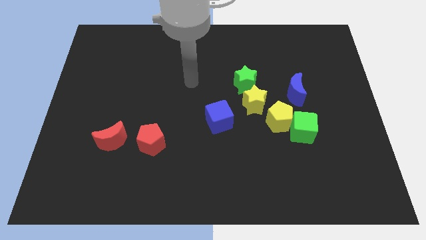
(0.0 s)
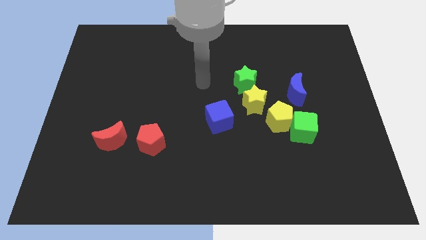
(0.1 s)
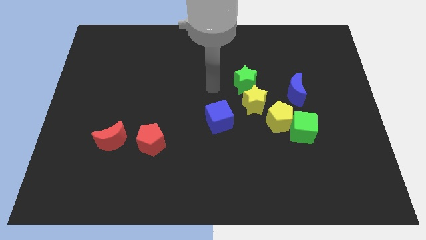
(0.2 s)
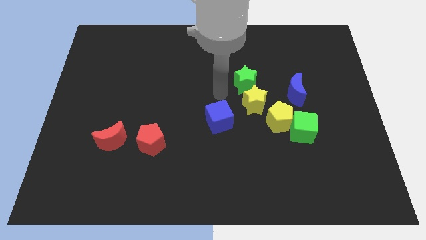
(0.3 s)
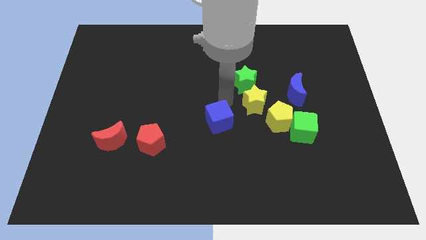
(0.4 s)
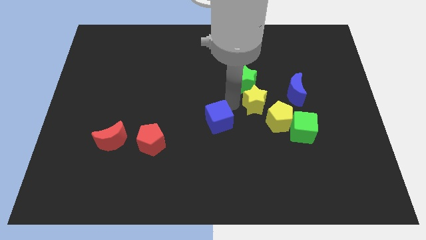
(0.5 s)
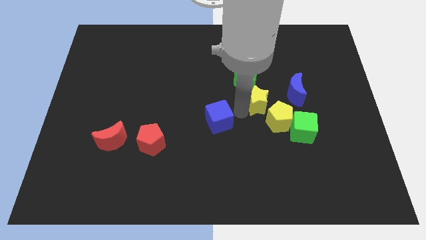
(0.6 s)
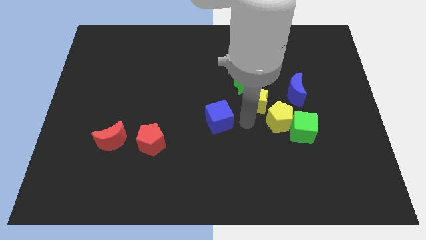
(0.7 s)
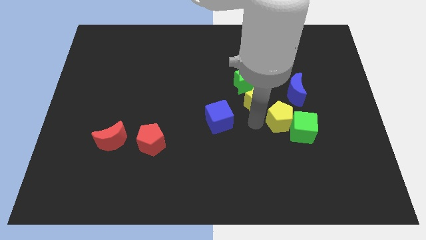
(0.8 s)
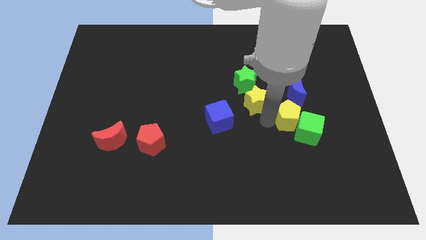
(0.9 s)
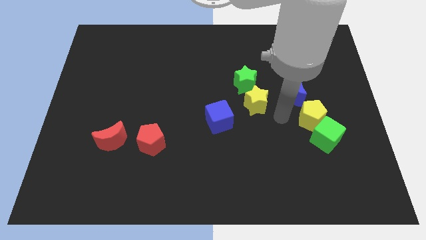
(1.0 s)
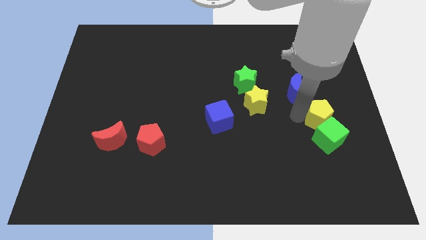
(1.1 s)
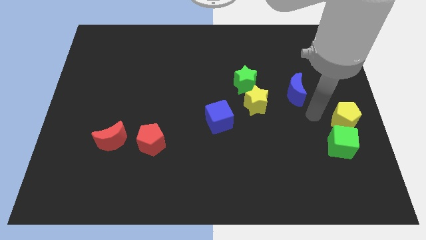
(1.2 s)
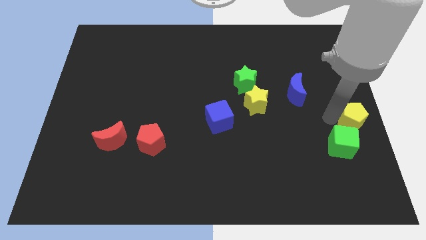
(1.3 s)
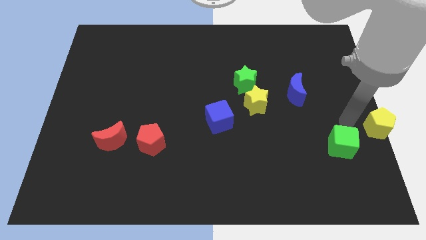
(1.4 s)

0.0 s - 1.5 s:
pull the green cube apart from the yellow pentagon

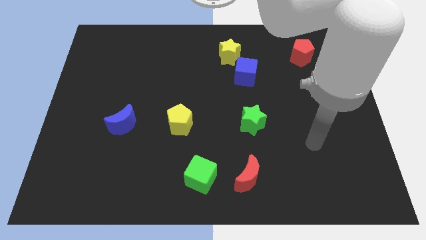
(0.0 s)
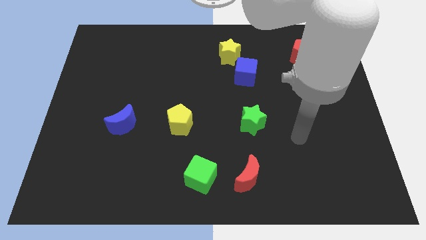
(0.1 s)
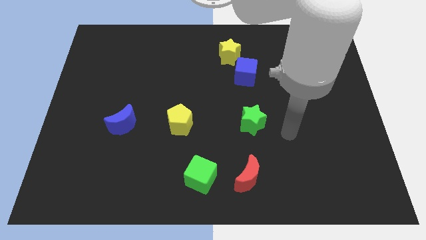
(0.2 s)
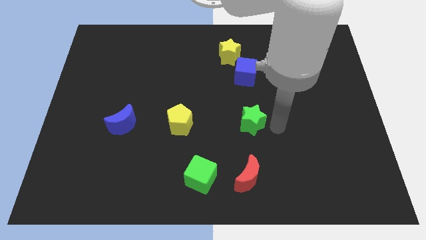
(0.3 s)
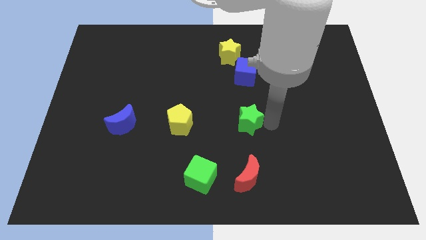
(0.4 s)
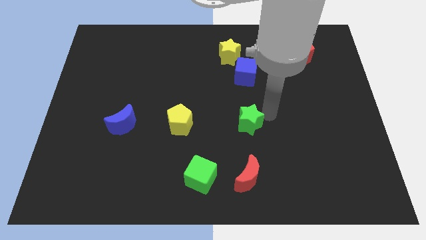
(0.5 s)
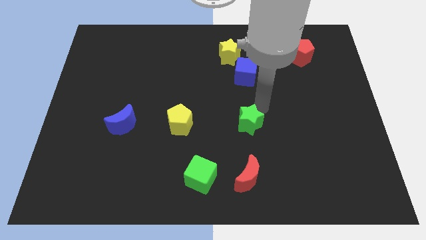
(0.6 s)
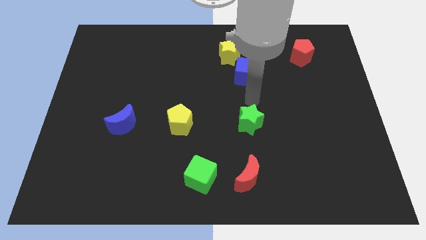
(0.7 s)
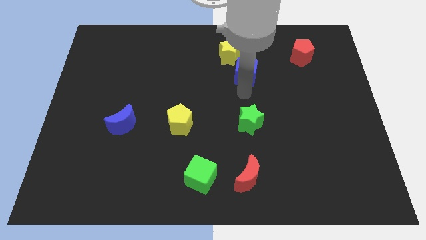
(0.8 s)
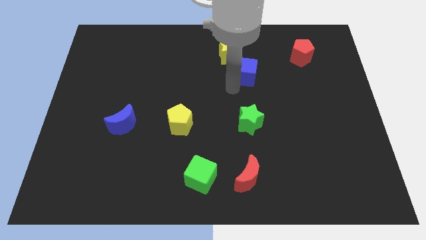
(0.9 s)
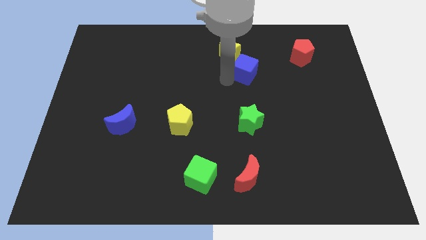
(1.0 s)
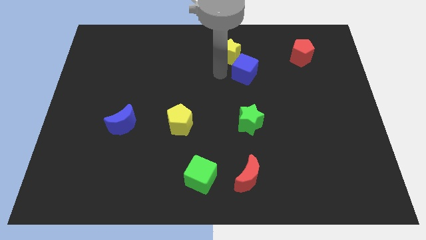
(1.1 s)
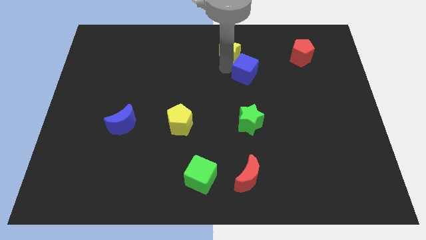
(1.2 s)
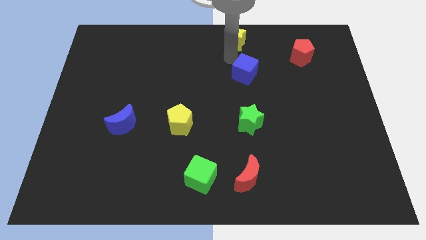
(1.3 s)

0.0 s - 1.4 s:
separate the blue cube from the yellow star

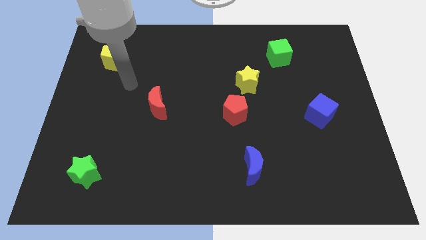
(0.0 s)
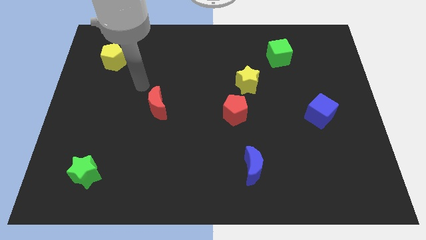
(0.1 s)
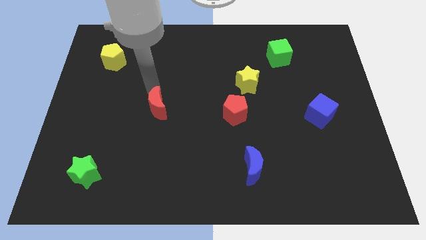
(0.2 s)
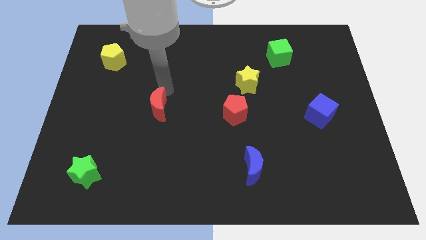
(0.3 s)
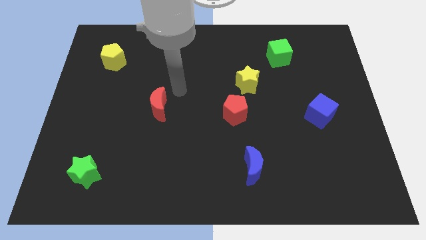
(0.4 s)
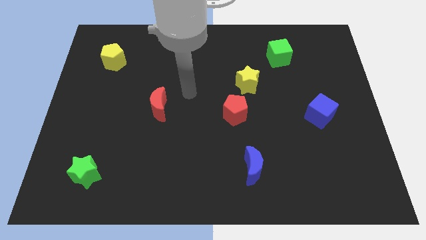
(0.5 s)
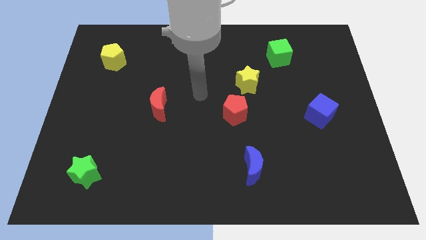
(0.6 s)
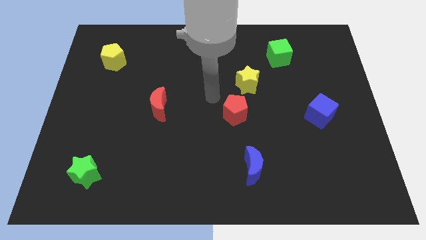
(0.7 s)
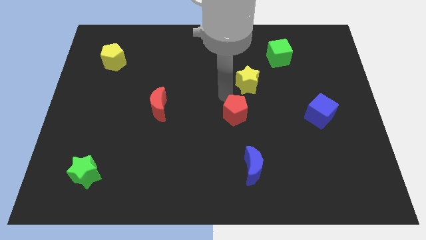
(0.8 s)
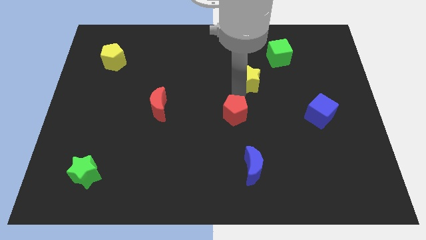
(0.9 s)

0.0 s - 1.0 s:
pull the red pentagon apart from the yellow star

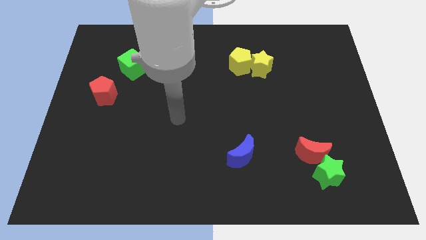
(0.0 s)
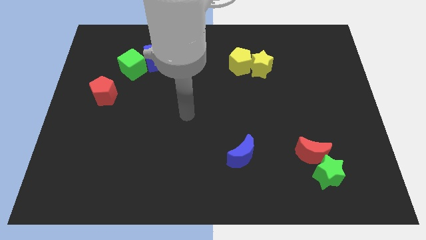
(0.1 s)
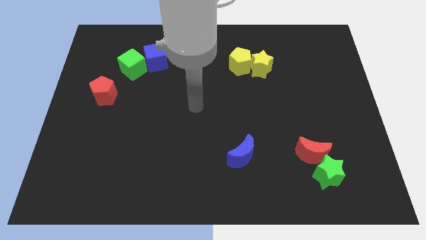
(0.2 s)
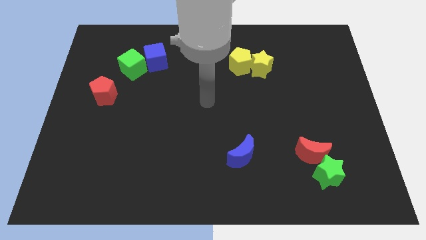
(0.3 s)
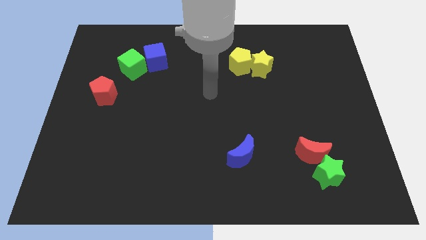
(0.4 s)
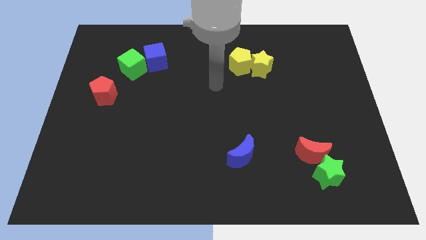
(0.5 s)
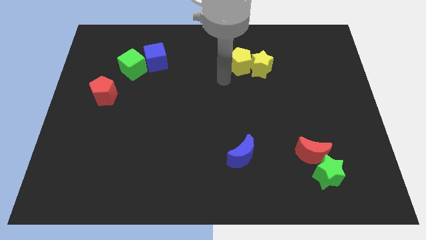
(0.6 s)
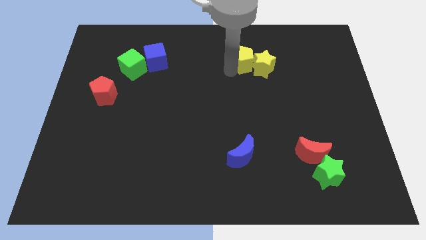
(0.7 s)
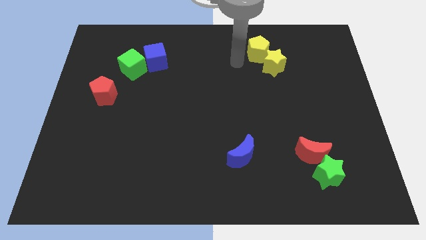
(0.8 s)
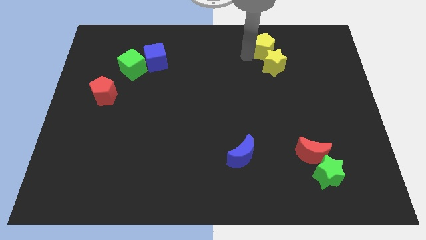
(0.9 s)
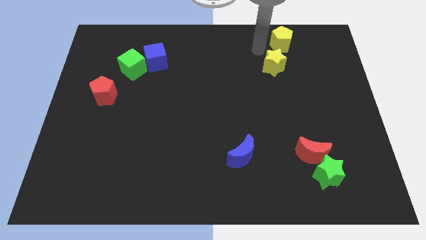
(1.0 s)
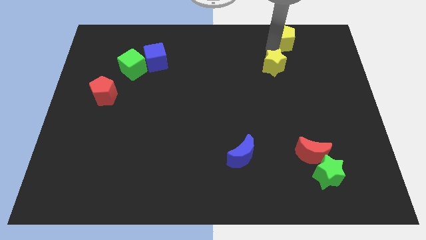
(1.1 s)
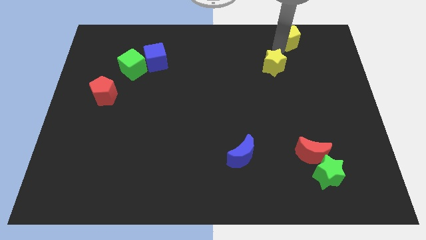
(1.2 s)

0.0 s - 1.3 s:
move the yellow star away from the yellow pentagon

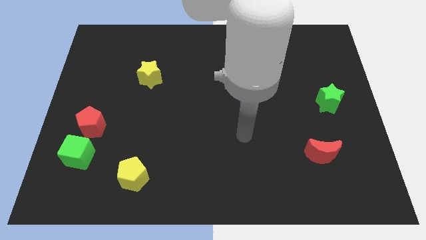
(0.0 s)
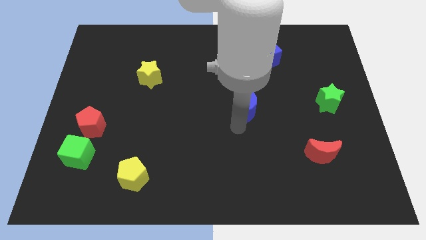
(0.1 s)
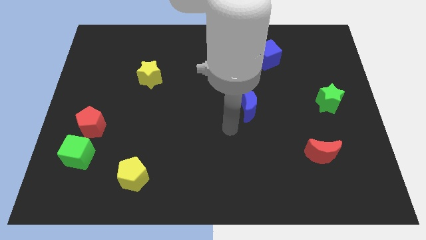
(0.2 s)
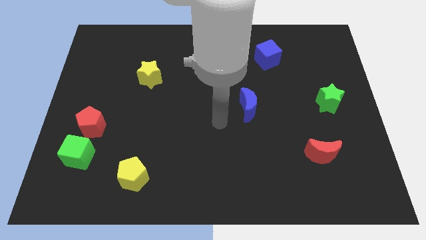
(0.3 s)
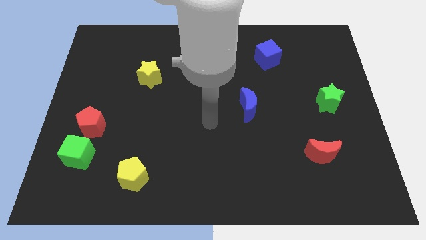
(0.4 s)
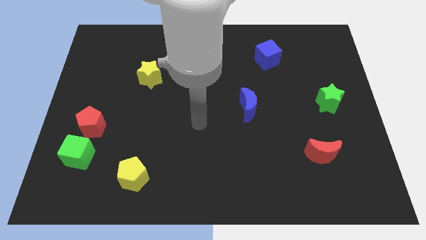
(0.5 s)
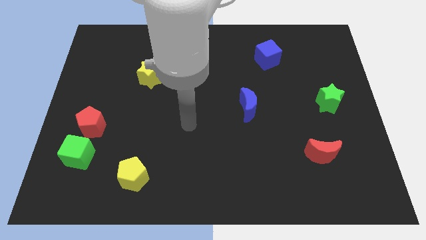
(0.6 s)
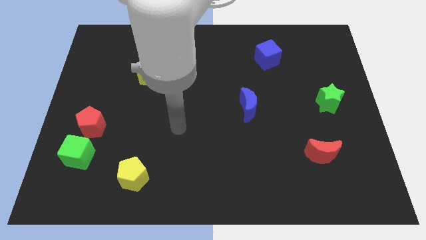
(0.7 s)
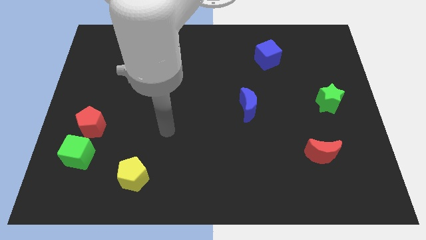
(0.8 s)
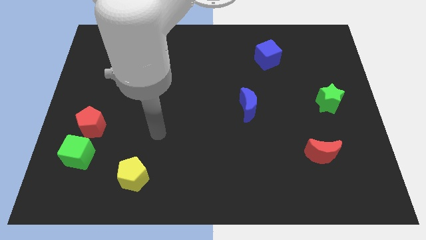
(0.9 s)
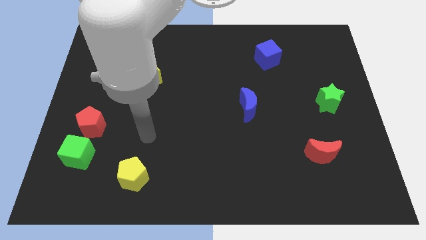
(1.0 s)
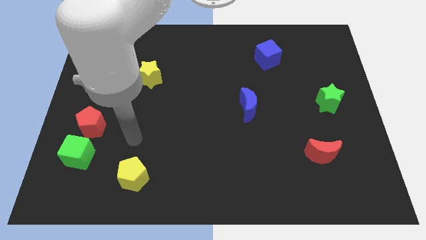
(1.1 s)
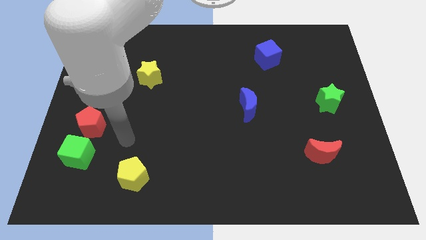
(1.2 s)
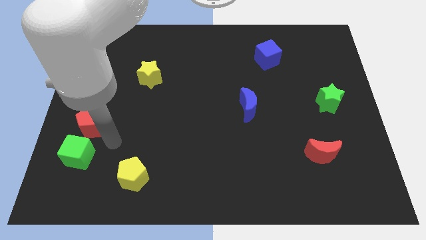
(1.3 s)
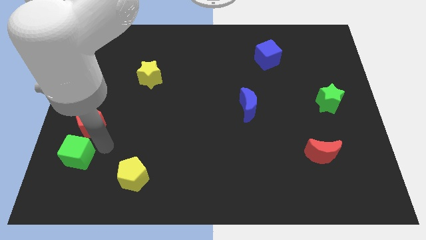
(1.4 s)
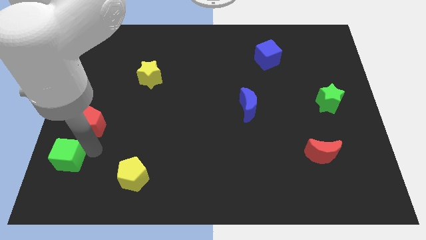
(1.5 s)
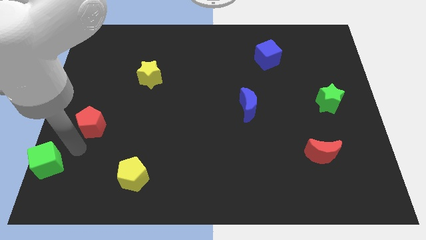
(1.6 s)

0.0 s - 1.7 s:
separate the red pentagon from the green cube

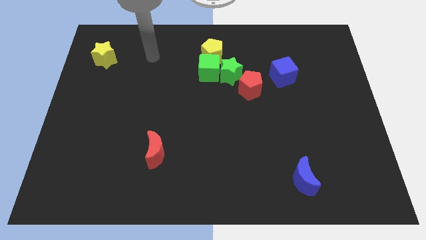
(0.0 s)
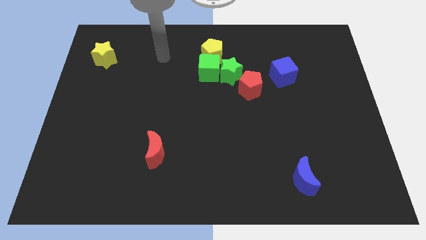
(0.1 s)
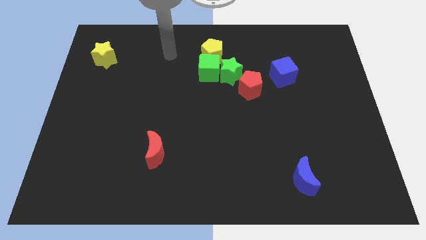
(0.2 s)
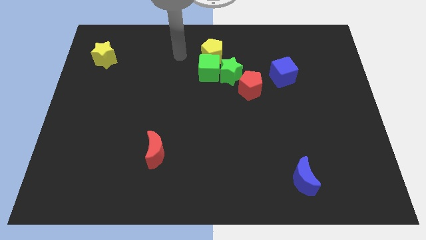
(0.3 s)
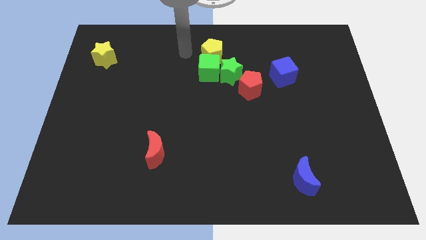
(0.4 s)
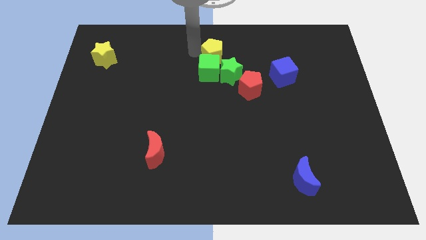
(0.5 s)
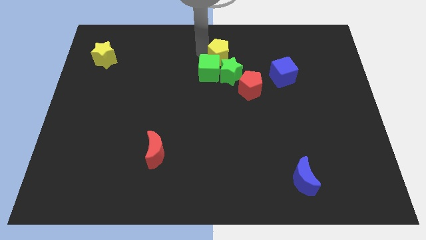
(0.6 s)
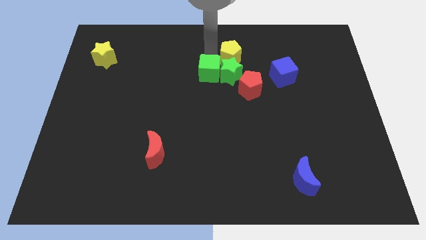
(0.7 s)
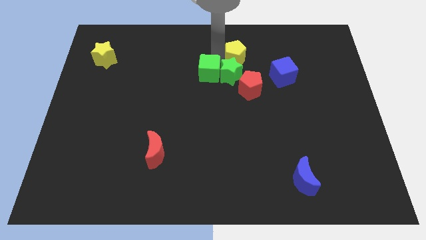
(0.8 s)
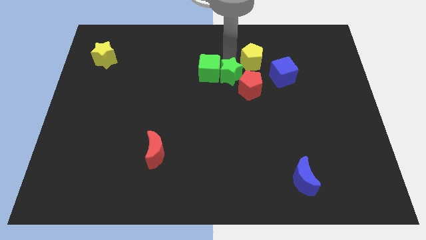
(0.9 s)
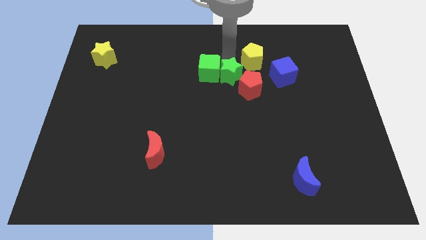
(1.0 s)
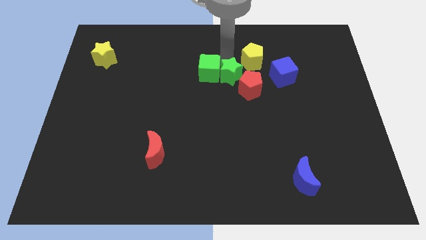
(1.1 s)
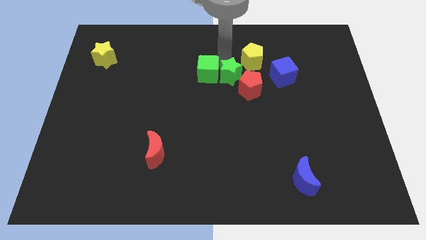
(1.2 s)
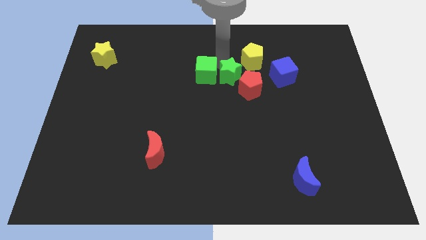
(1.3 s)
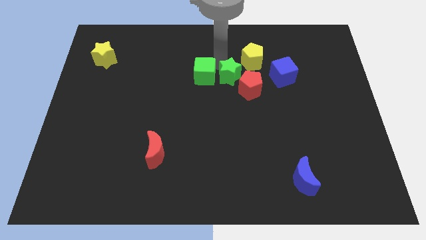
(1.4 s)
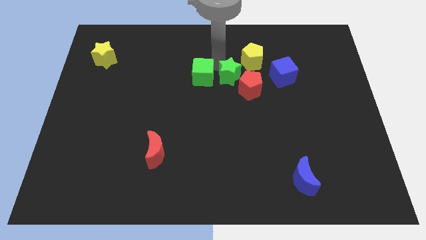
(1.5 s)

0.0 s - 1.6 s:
move the green cube away from the green star and yellow pentagon

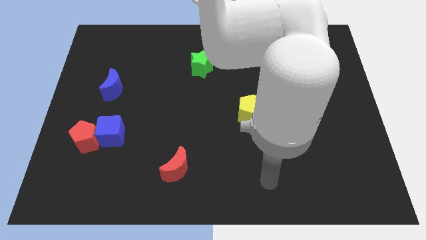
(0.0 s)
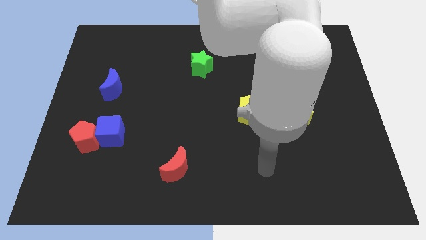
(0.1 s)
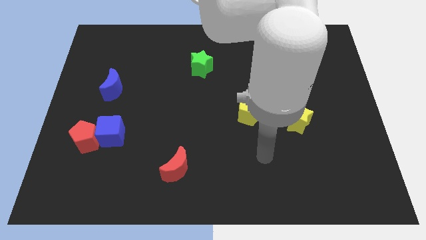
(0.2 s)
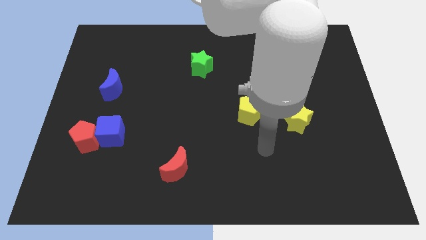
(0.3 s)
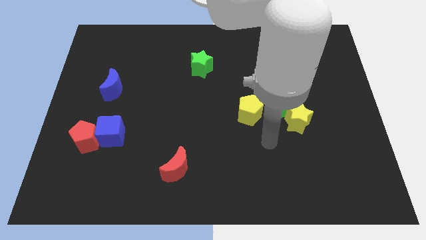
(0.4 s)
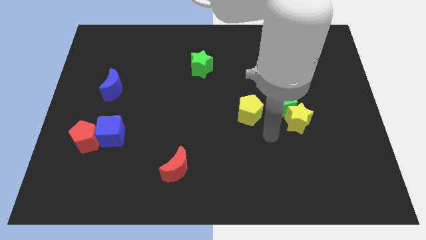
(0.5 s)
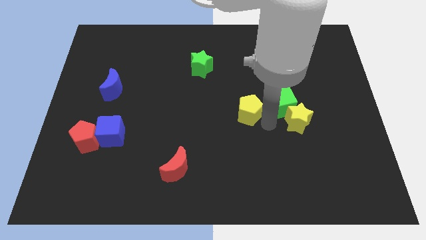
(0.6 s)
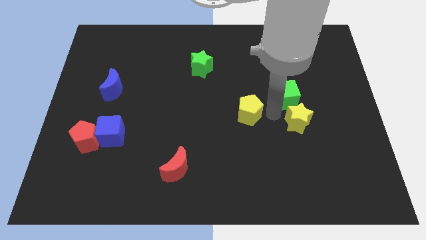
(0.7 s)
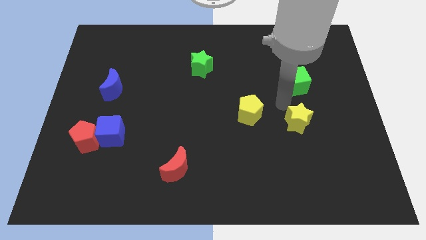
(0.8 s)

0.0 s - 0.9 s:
separate the yellow star from the green cube
